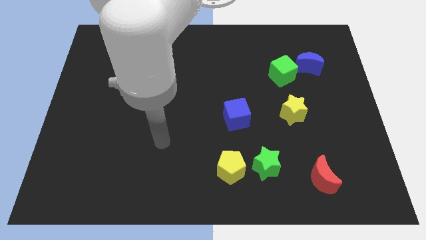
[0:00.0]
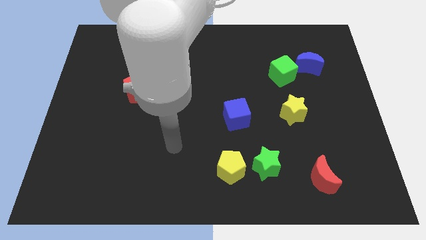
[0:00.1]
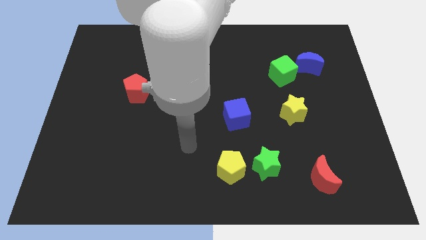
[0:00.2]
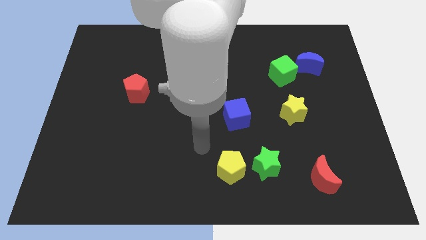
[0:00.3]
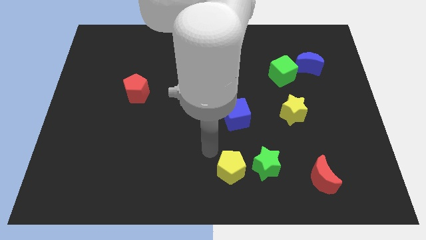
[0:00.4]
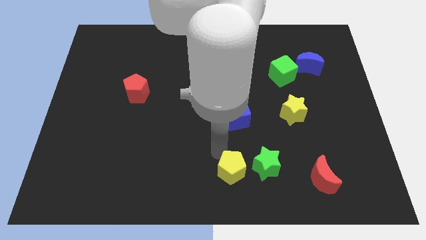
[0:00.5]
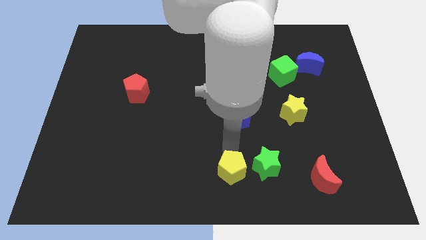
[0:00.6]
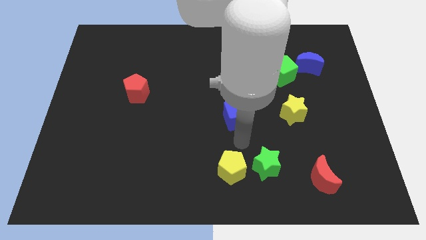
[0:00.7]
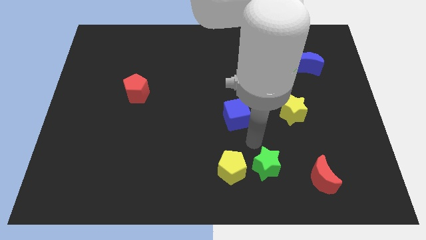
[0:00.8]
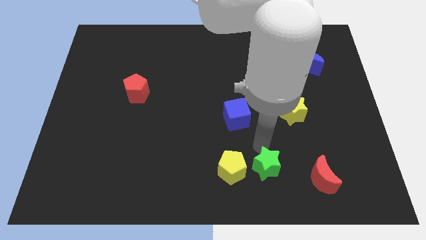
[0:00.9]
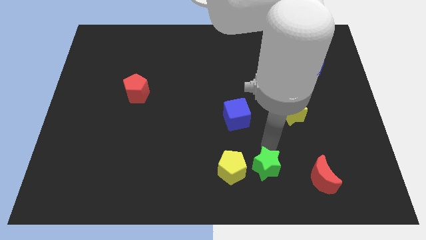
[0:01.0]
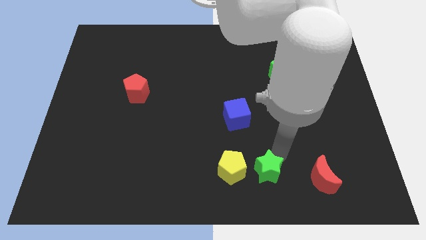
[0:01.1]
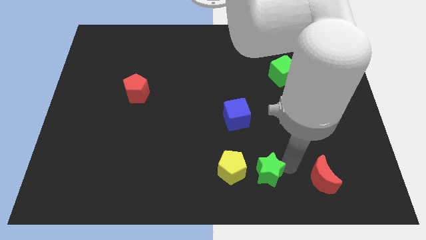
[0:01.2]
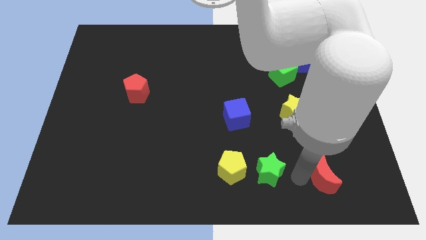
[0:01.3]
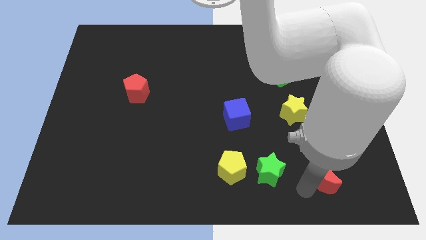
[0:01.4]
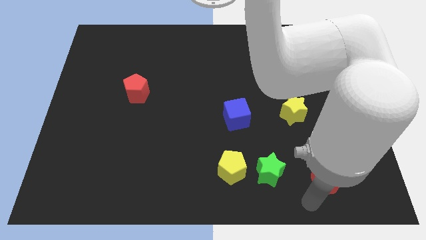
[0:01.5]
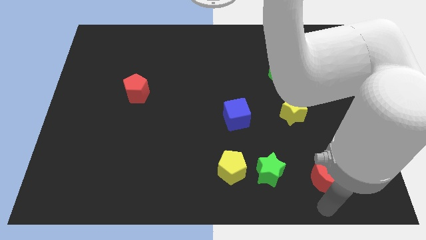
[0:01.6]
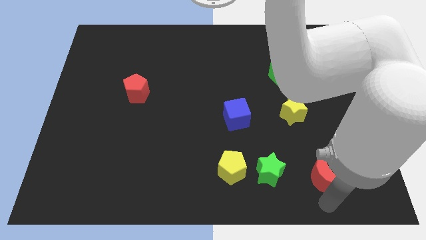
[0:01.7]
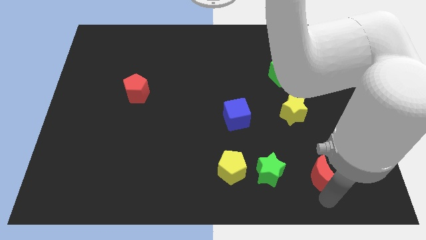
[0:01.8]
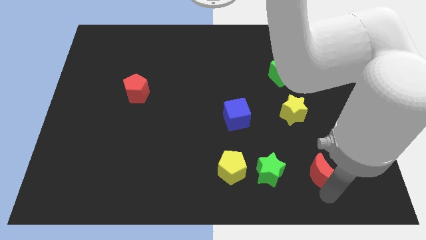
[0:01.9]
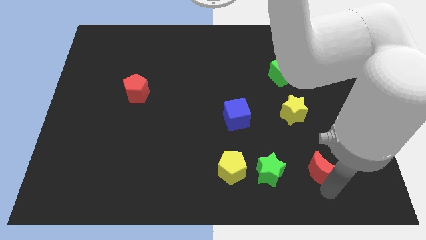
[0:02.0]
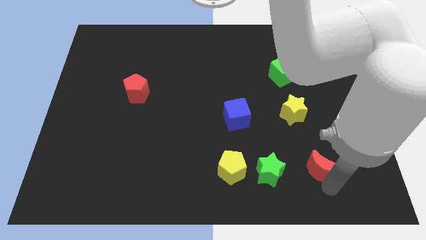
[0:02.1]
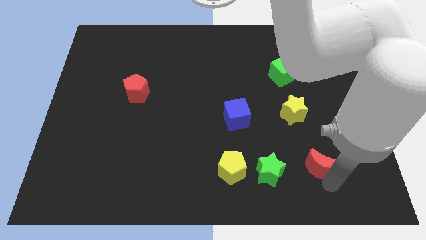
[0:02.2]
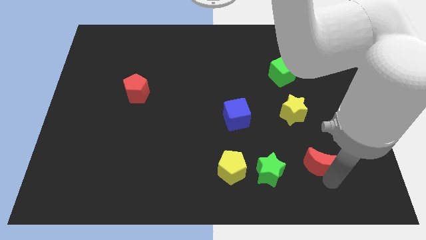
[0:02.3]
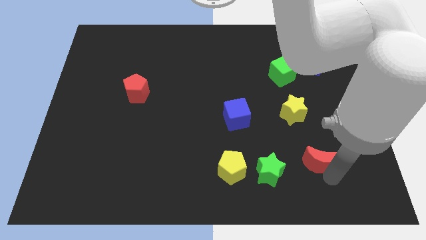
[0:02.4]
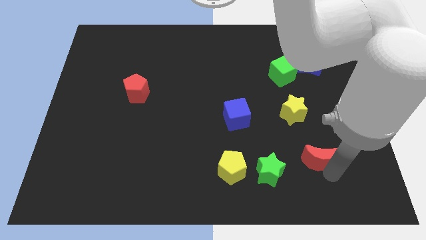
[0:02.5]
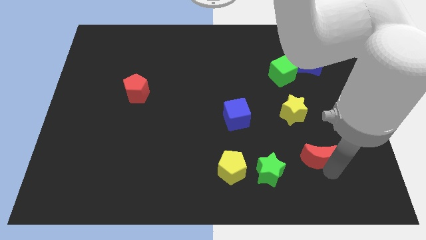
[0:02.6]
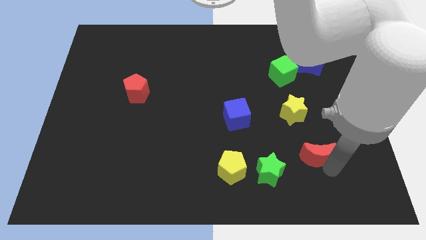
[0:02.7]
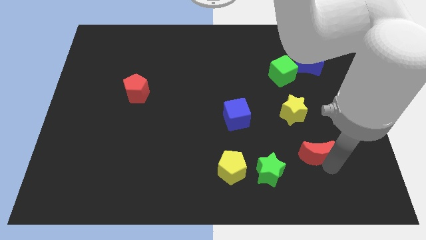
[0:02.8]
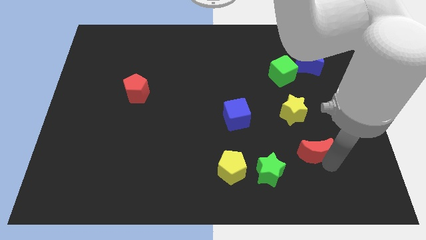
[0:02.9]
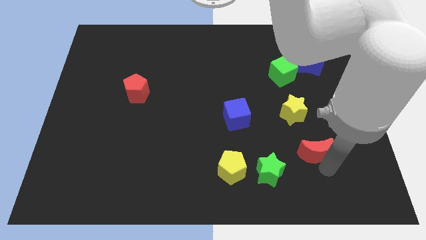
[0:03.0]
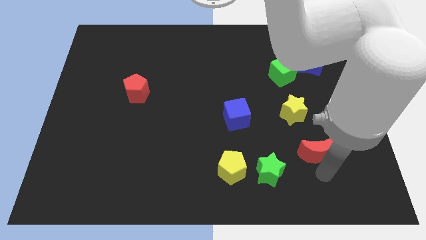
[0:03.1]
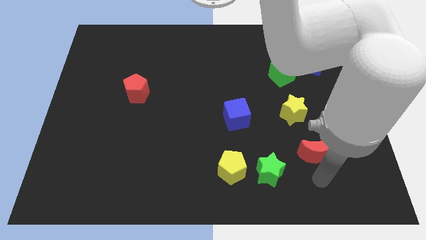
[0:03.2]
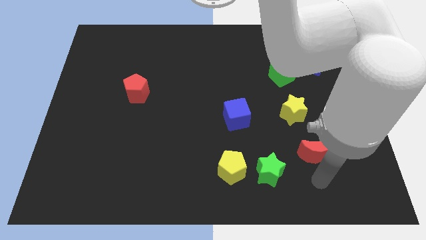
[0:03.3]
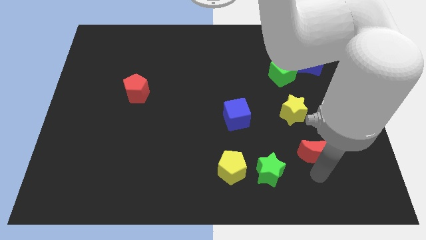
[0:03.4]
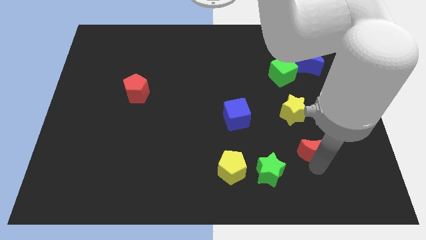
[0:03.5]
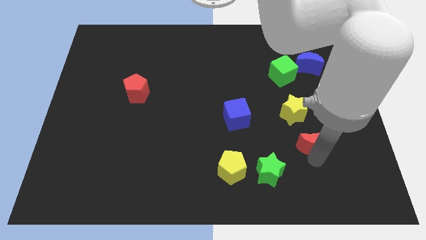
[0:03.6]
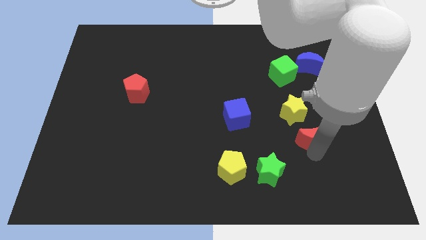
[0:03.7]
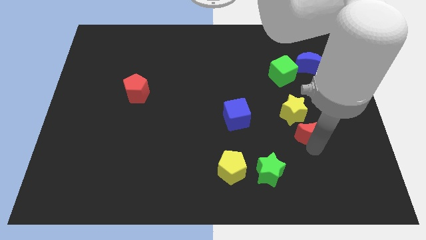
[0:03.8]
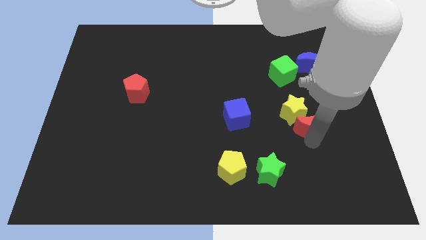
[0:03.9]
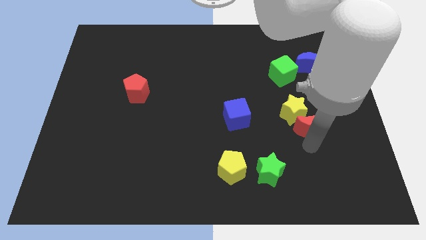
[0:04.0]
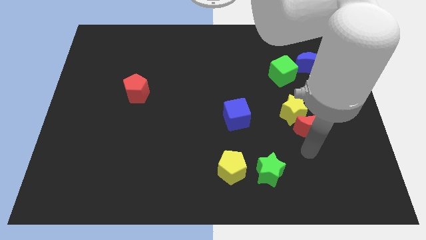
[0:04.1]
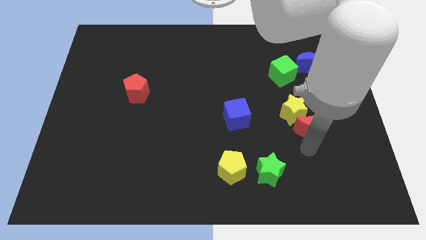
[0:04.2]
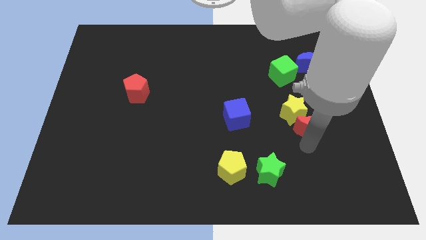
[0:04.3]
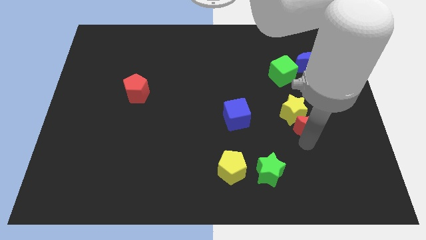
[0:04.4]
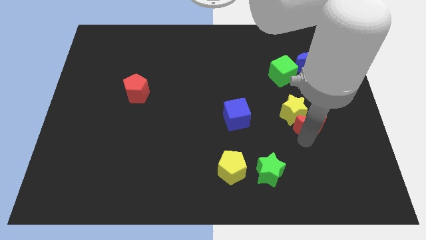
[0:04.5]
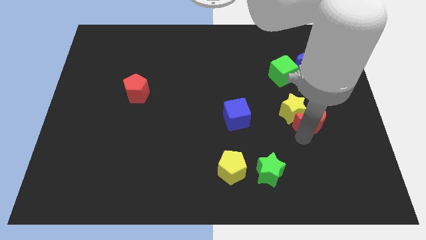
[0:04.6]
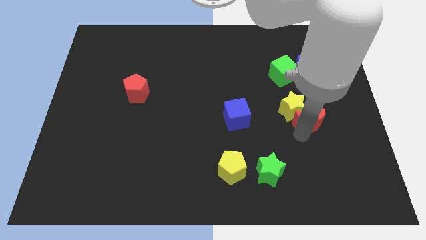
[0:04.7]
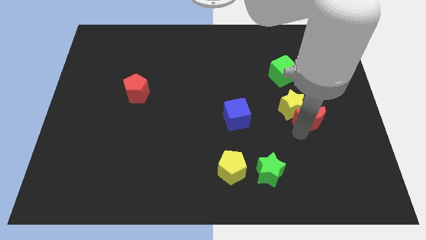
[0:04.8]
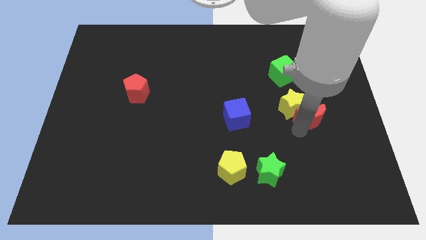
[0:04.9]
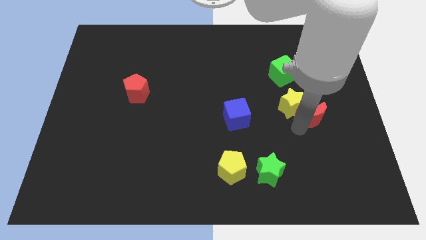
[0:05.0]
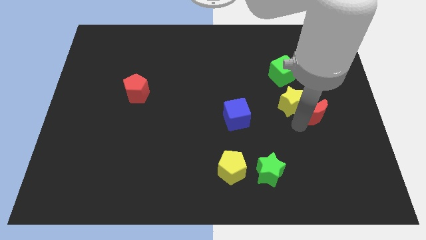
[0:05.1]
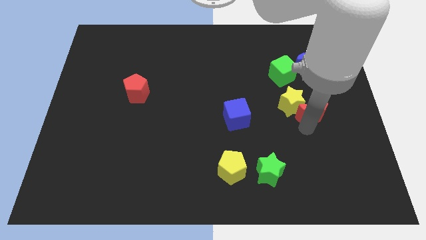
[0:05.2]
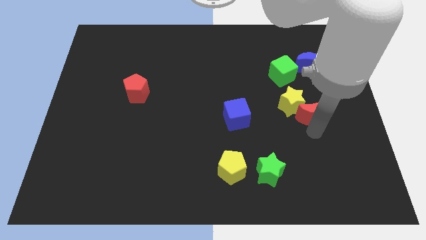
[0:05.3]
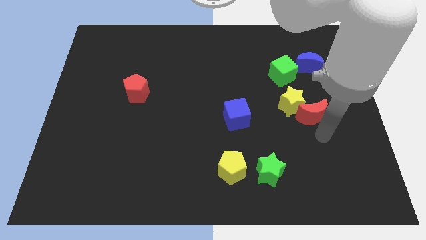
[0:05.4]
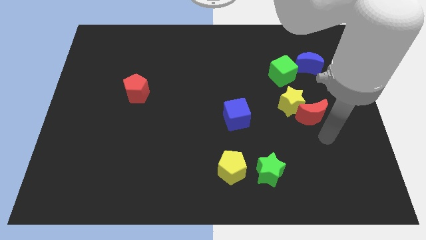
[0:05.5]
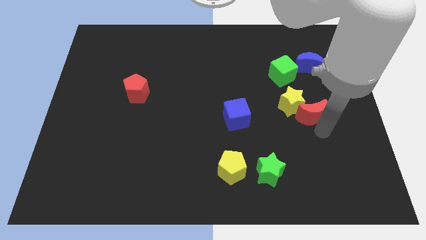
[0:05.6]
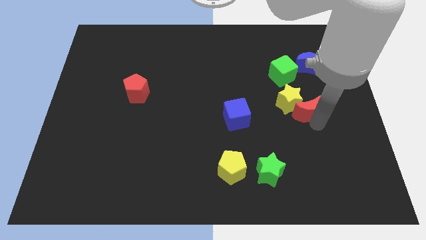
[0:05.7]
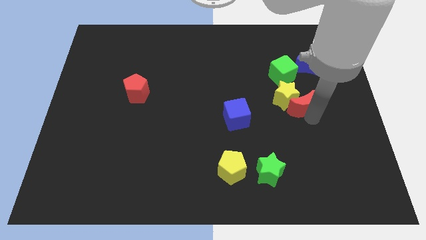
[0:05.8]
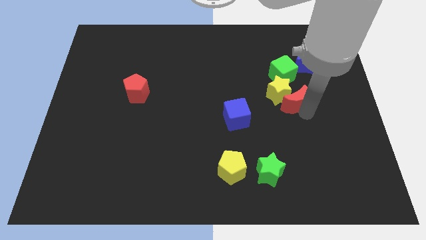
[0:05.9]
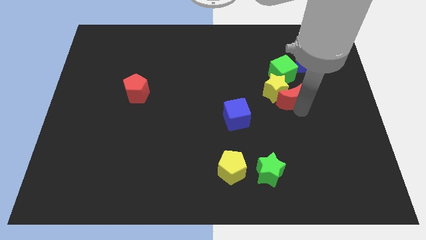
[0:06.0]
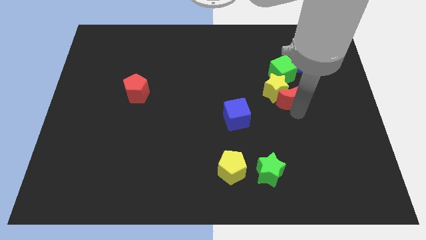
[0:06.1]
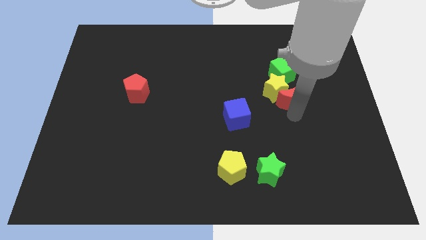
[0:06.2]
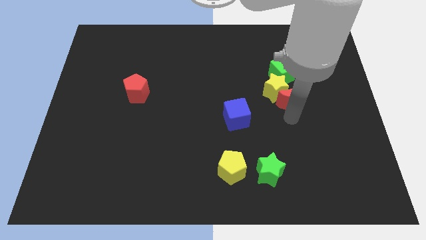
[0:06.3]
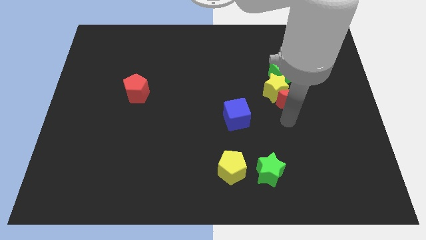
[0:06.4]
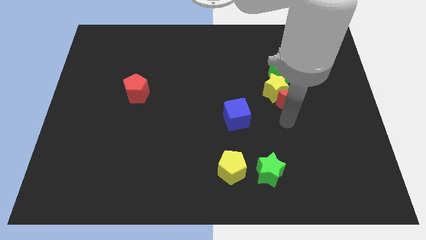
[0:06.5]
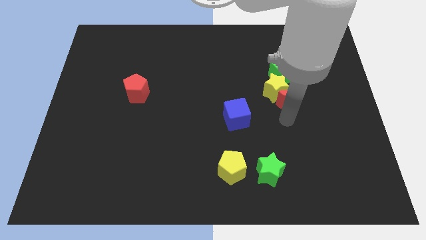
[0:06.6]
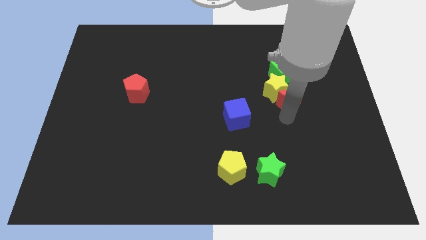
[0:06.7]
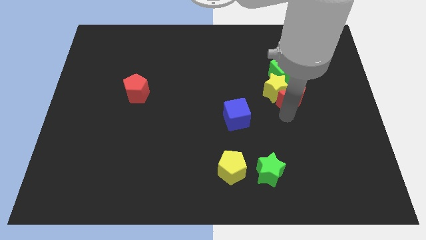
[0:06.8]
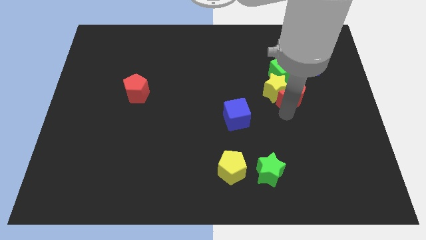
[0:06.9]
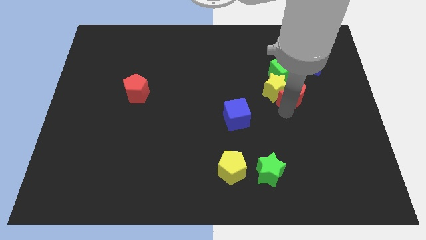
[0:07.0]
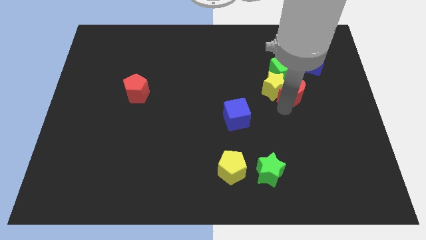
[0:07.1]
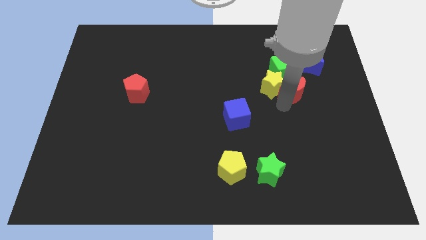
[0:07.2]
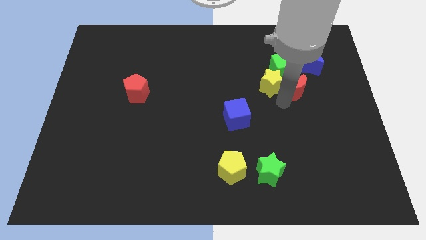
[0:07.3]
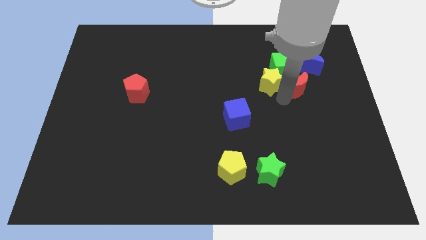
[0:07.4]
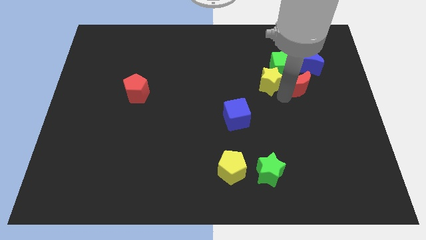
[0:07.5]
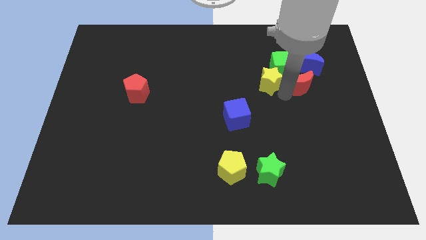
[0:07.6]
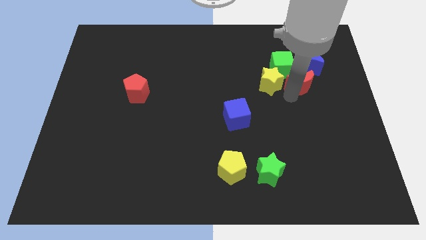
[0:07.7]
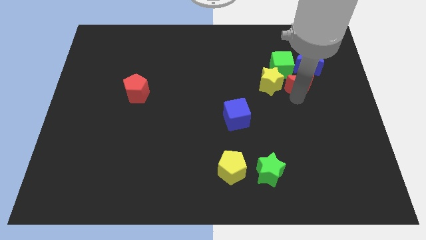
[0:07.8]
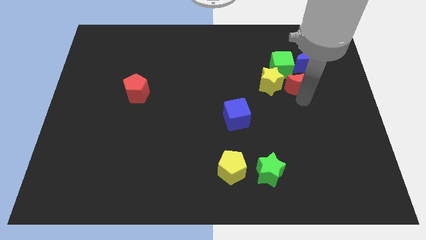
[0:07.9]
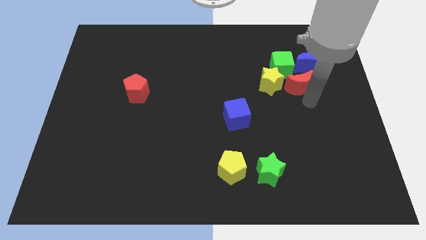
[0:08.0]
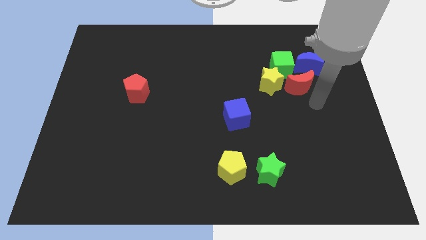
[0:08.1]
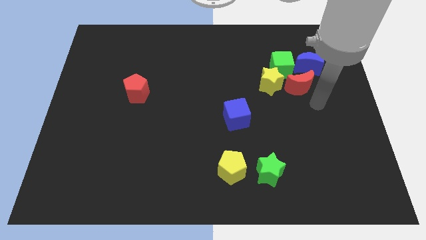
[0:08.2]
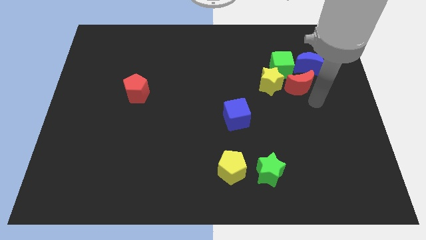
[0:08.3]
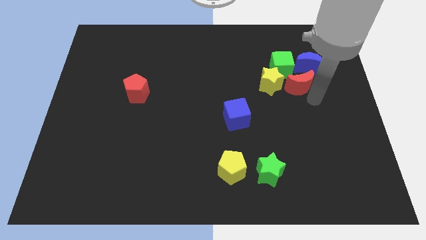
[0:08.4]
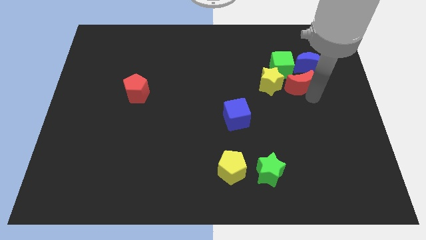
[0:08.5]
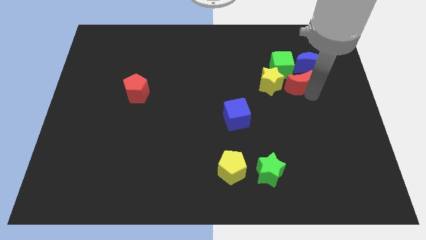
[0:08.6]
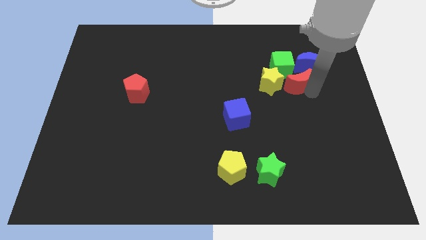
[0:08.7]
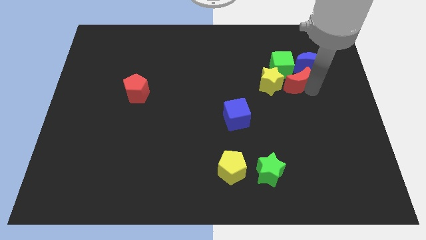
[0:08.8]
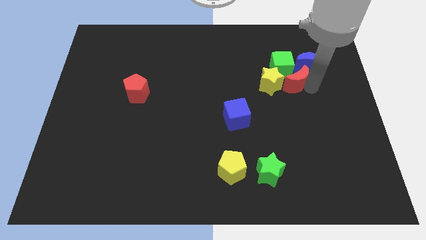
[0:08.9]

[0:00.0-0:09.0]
slide the red moon towards the green cube
